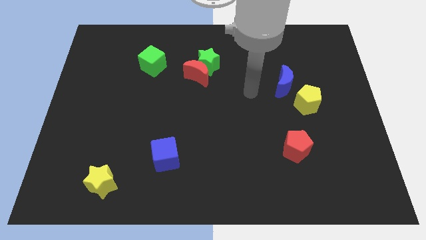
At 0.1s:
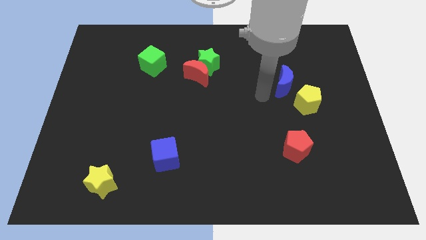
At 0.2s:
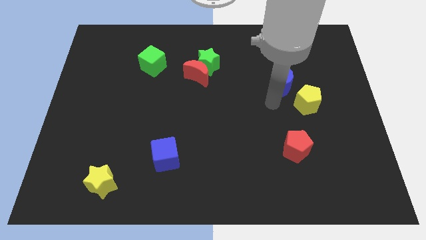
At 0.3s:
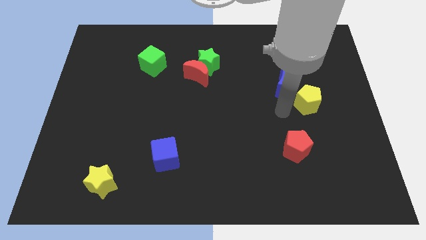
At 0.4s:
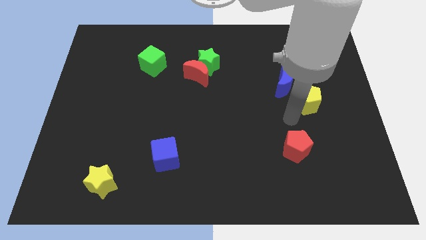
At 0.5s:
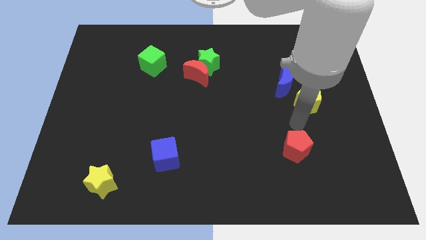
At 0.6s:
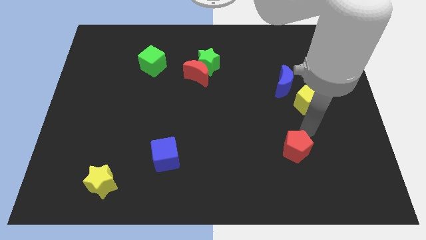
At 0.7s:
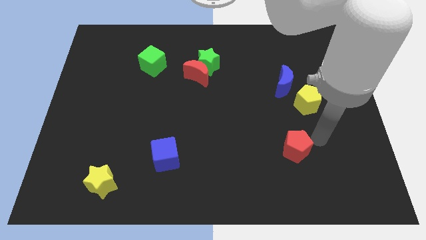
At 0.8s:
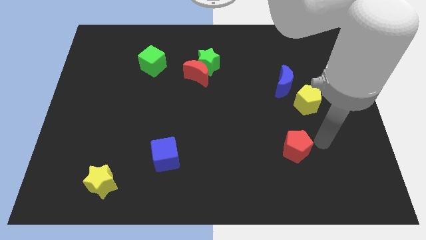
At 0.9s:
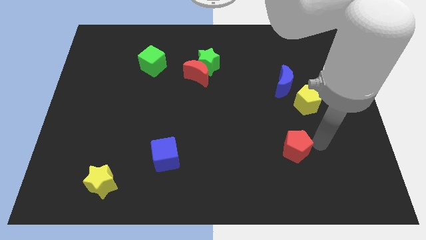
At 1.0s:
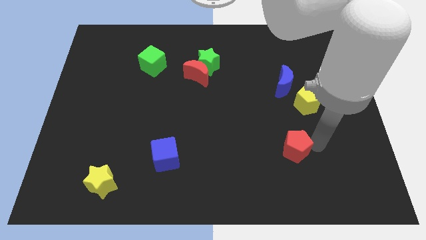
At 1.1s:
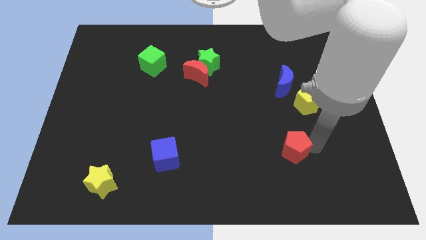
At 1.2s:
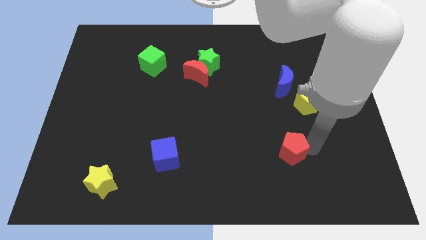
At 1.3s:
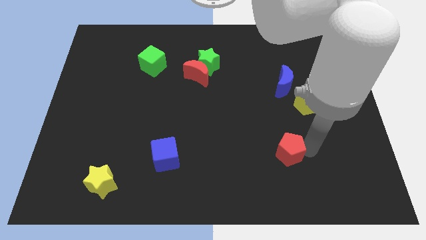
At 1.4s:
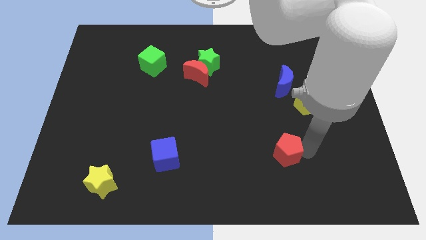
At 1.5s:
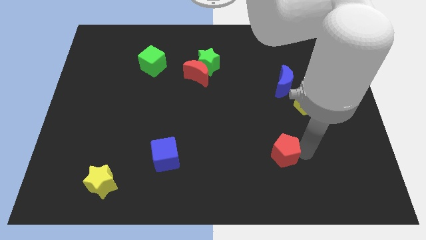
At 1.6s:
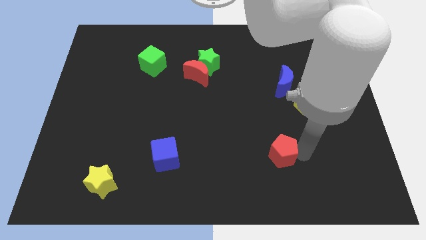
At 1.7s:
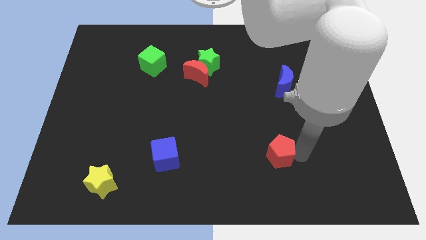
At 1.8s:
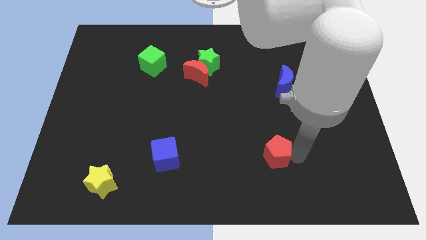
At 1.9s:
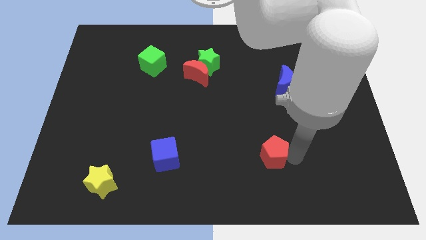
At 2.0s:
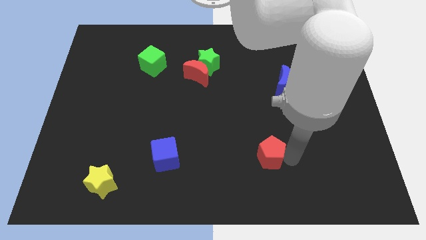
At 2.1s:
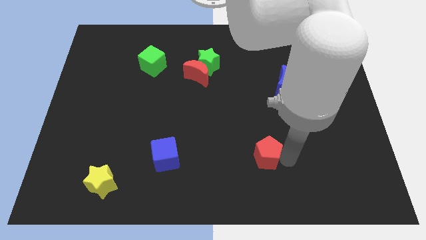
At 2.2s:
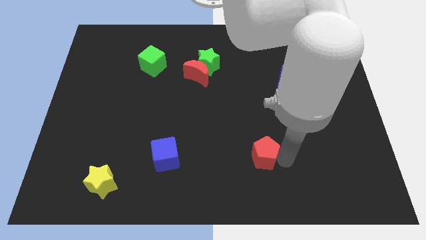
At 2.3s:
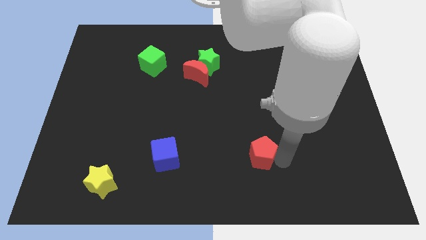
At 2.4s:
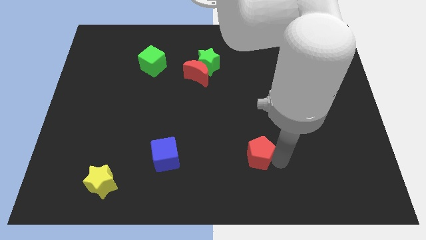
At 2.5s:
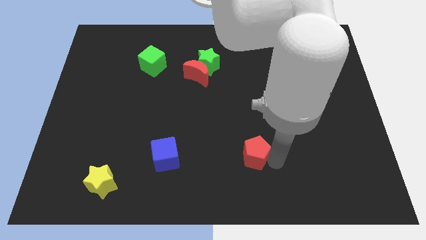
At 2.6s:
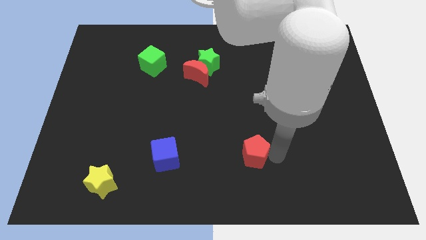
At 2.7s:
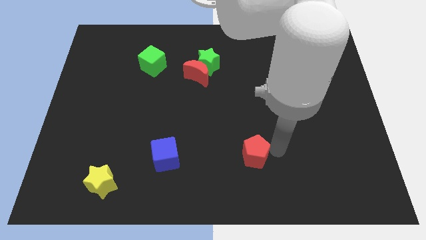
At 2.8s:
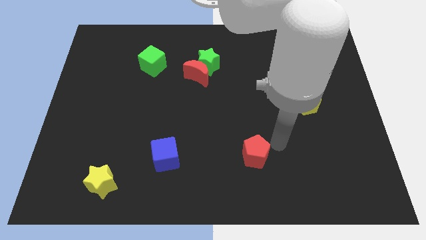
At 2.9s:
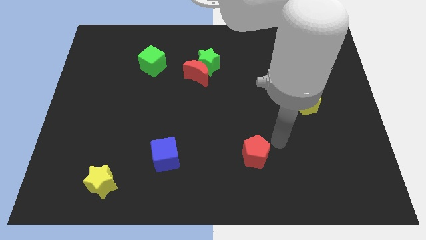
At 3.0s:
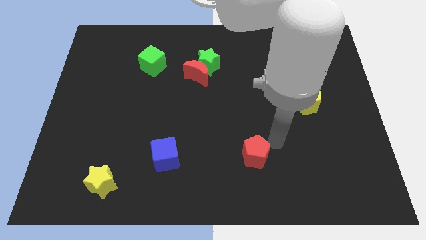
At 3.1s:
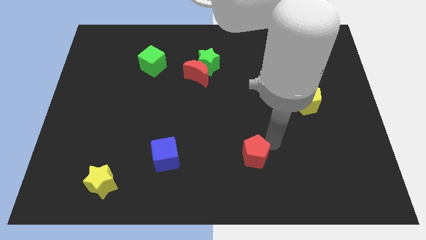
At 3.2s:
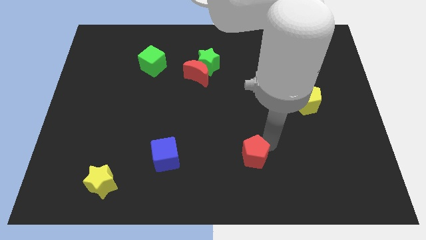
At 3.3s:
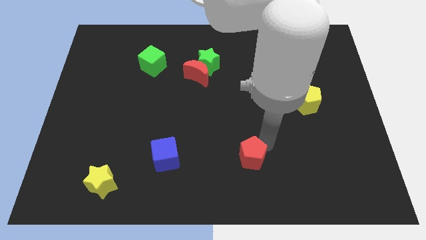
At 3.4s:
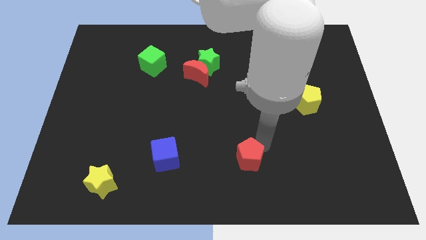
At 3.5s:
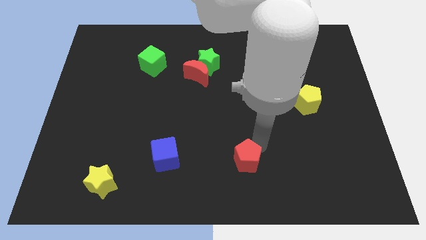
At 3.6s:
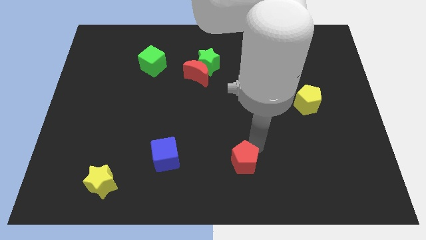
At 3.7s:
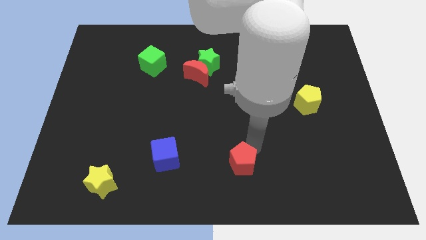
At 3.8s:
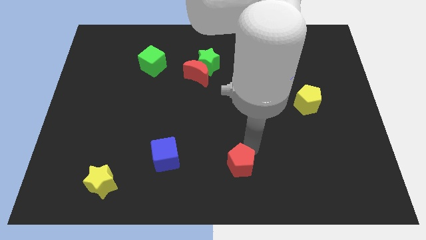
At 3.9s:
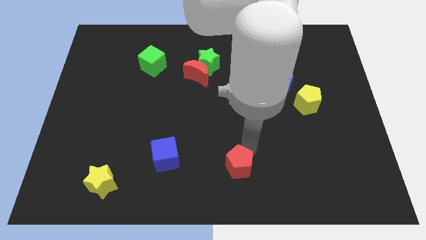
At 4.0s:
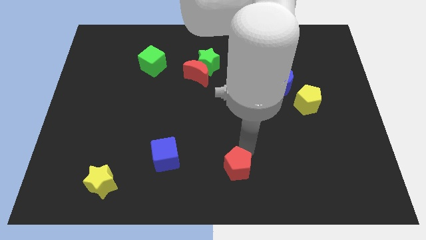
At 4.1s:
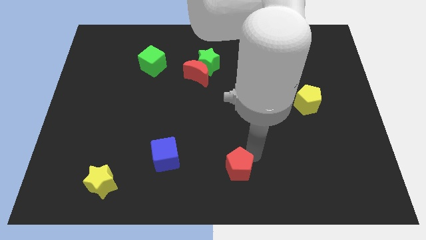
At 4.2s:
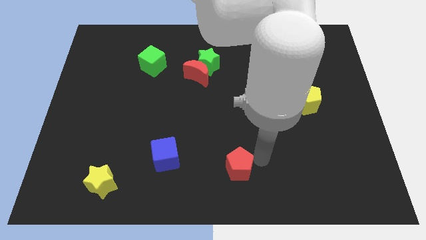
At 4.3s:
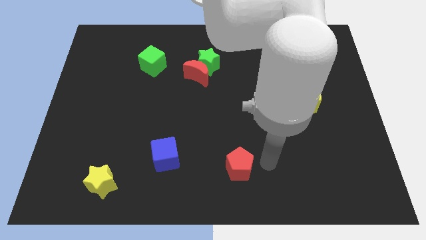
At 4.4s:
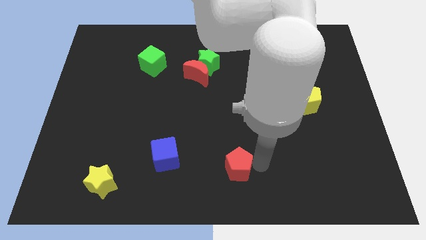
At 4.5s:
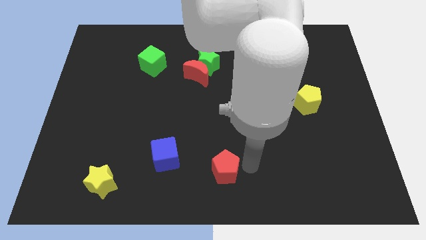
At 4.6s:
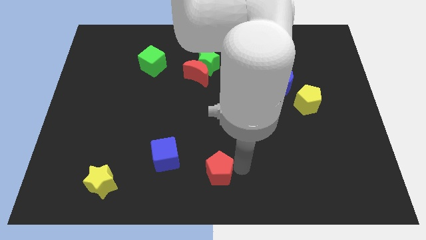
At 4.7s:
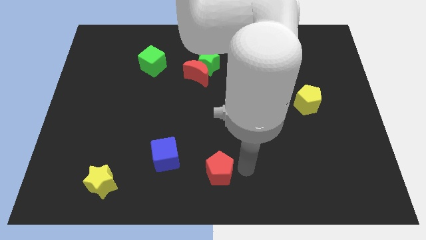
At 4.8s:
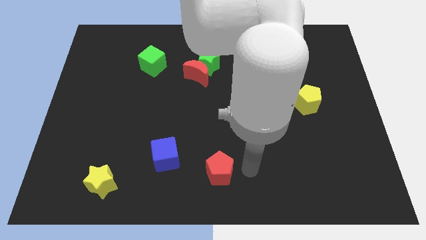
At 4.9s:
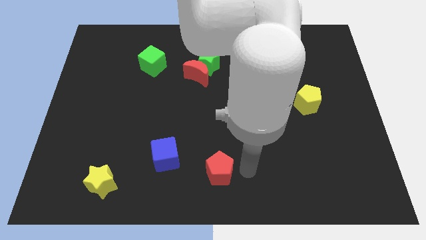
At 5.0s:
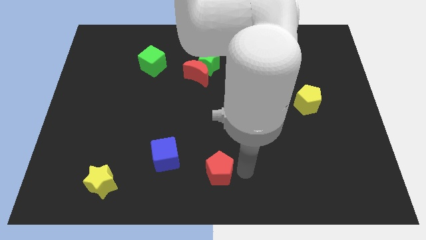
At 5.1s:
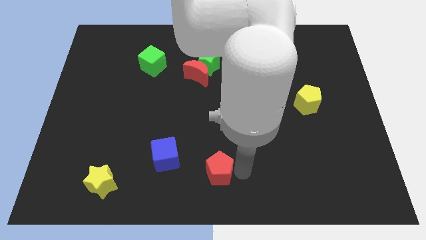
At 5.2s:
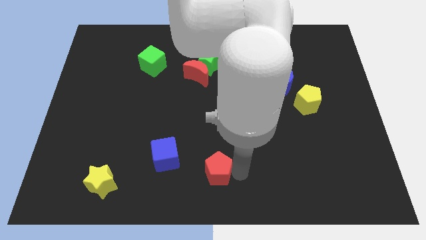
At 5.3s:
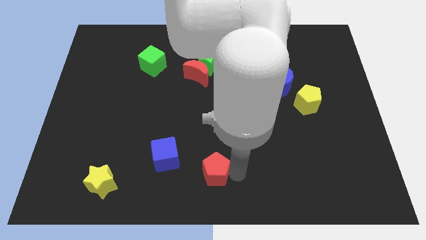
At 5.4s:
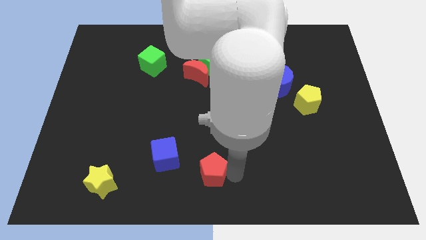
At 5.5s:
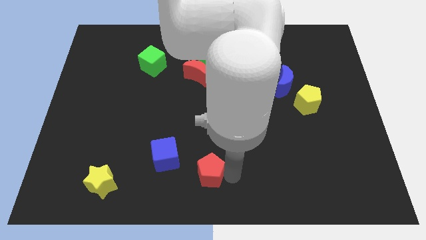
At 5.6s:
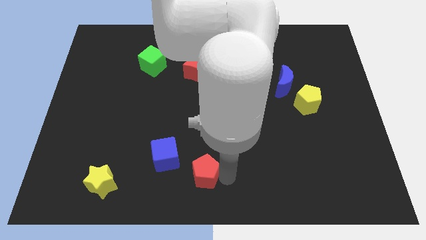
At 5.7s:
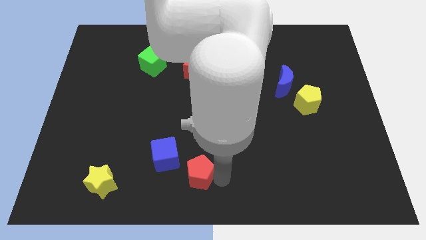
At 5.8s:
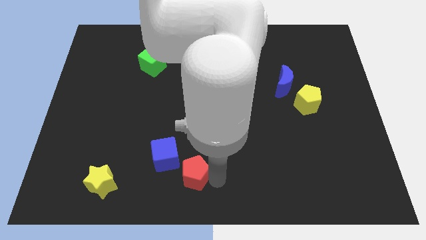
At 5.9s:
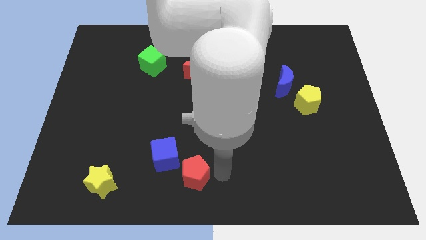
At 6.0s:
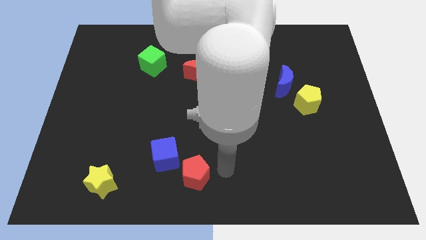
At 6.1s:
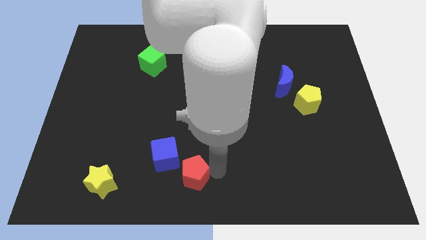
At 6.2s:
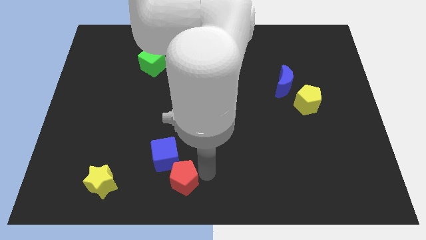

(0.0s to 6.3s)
put the red pentagon to the right of the yellow star
